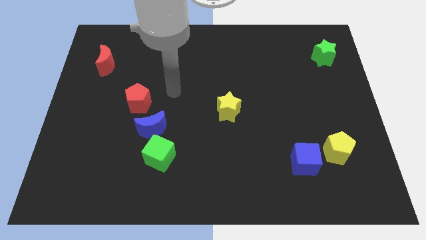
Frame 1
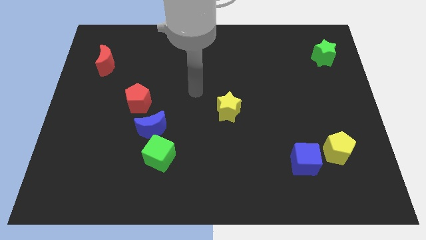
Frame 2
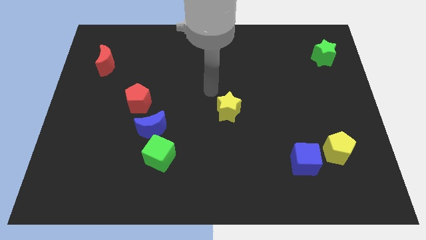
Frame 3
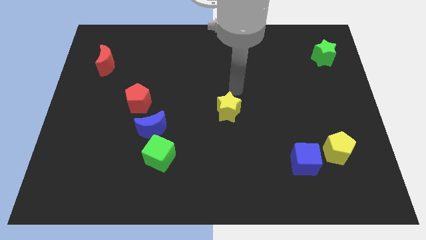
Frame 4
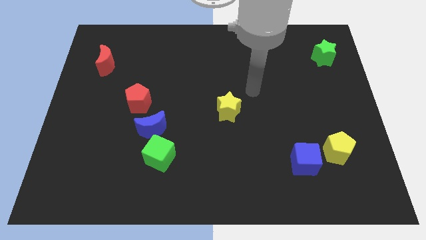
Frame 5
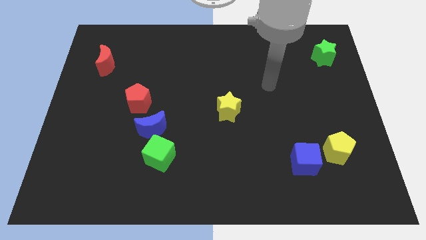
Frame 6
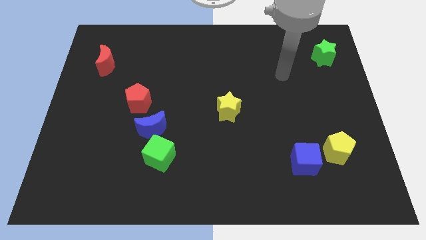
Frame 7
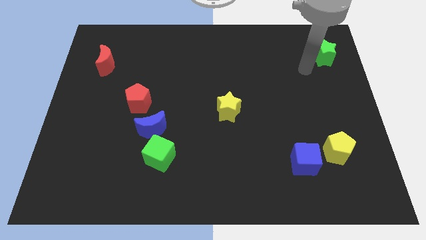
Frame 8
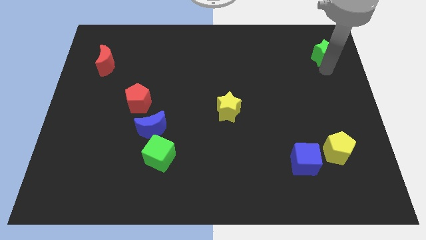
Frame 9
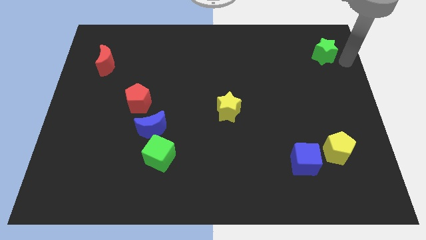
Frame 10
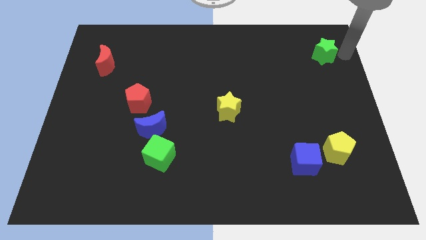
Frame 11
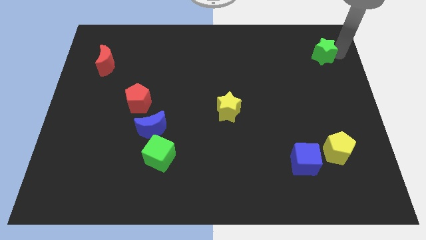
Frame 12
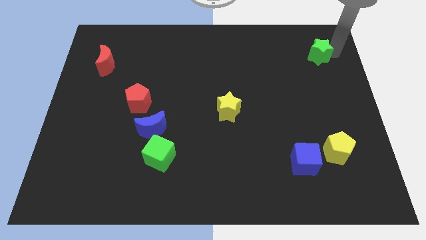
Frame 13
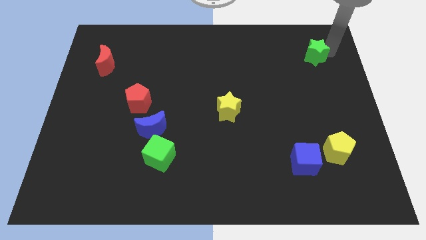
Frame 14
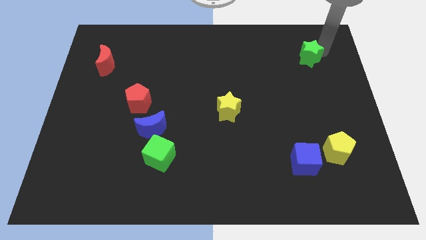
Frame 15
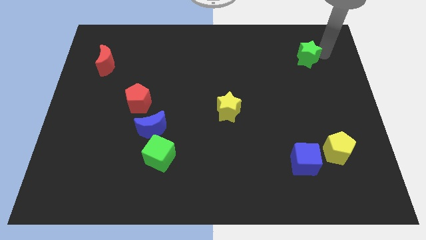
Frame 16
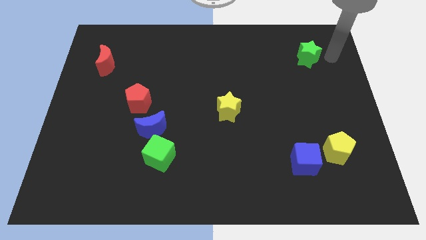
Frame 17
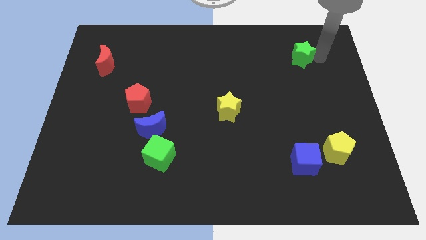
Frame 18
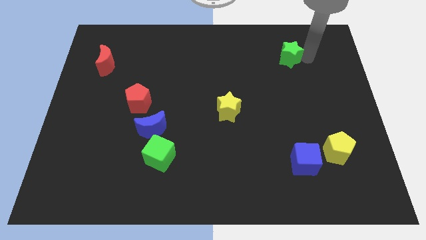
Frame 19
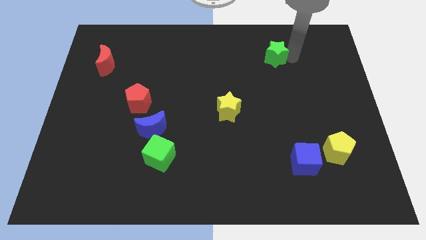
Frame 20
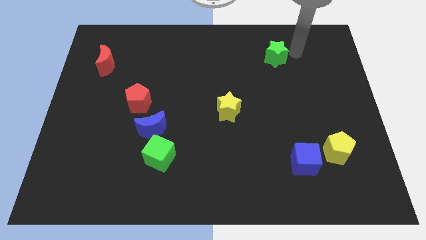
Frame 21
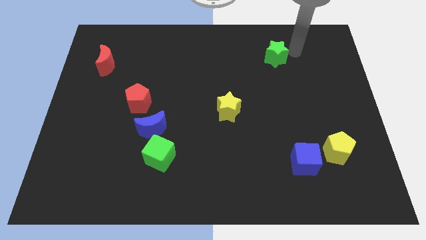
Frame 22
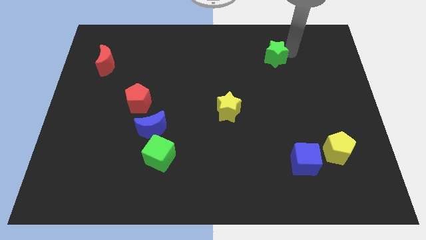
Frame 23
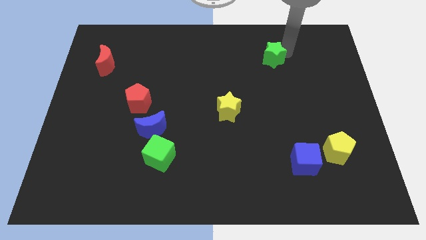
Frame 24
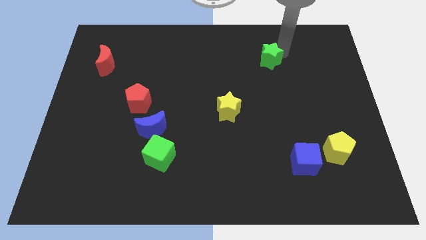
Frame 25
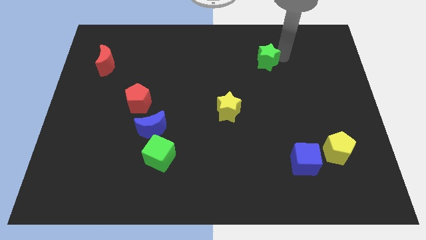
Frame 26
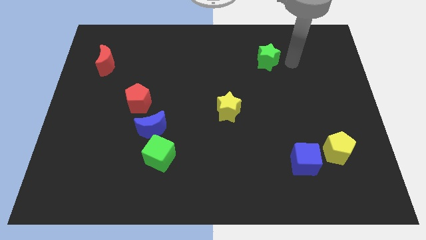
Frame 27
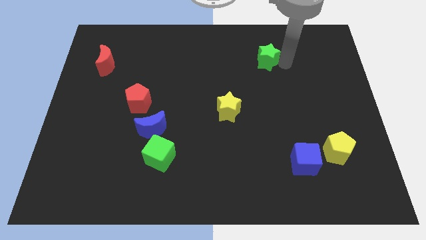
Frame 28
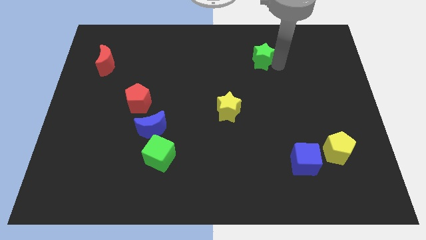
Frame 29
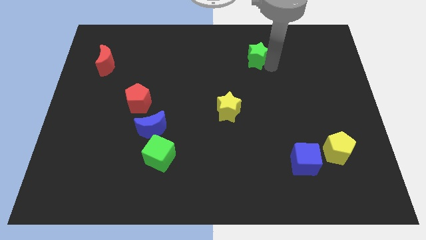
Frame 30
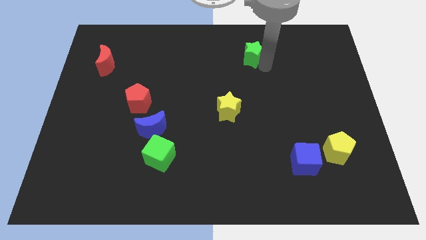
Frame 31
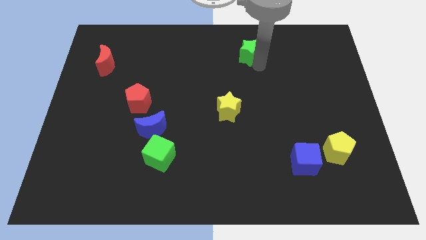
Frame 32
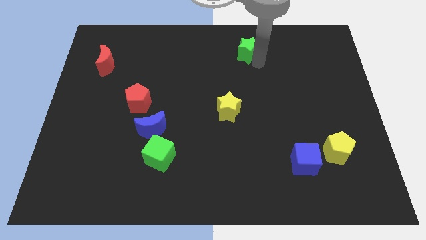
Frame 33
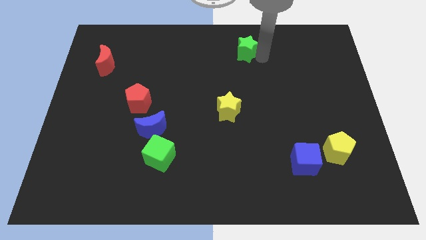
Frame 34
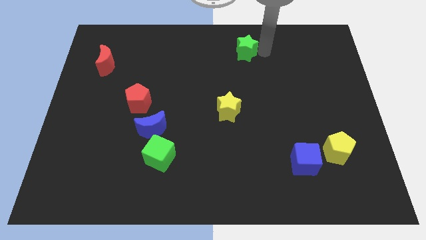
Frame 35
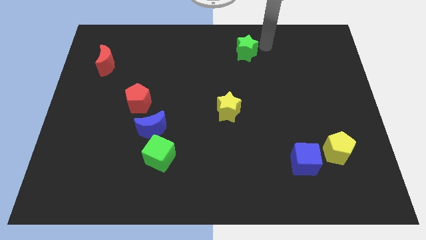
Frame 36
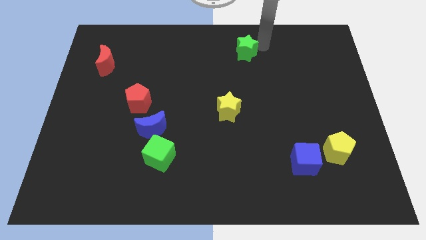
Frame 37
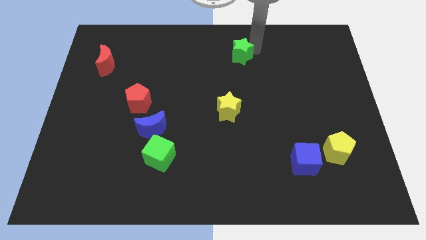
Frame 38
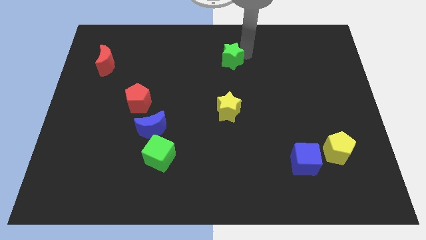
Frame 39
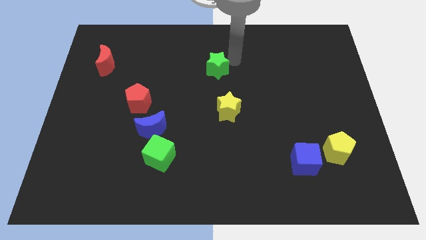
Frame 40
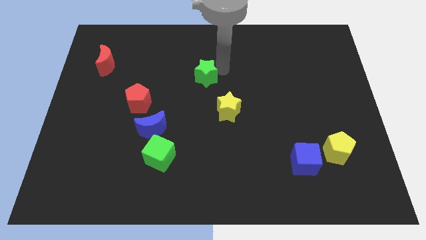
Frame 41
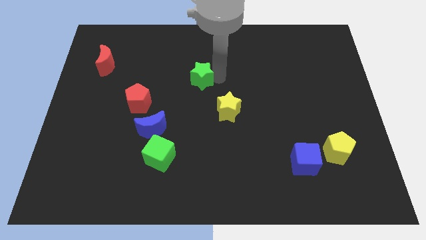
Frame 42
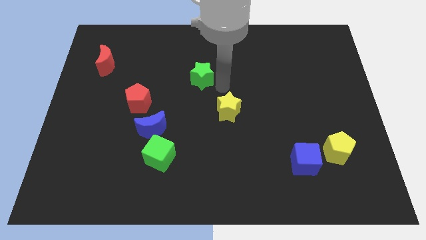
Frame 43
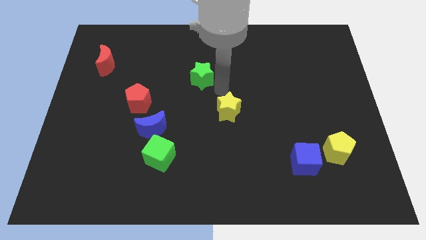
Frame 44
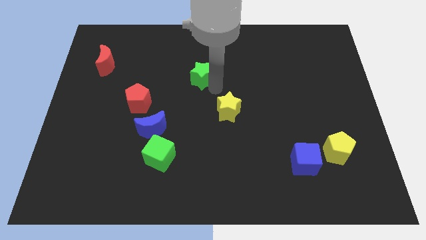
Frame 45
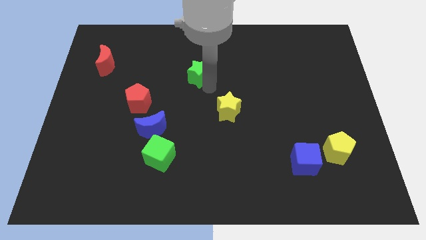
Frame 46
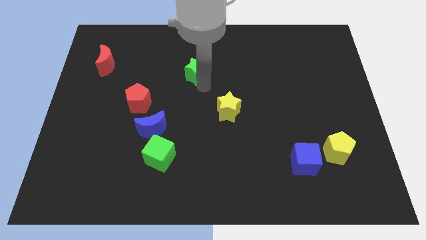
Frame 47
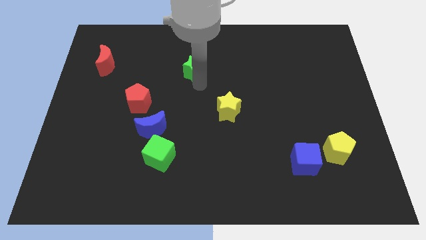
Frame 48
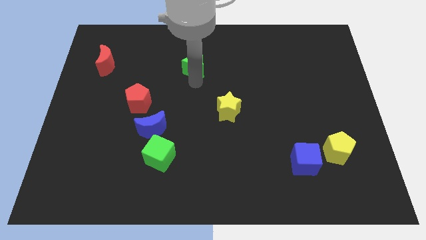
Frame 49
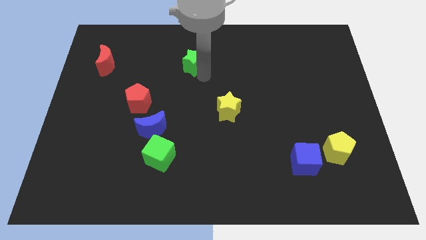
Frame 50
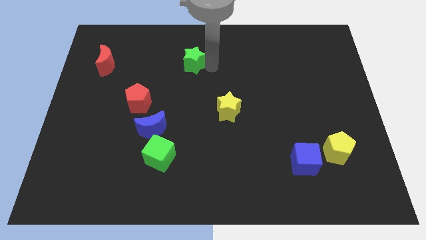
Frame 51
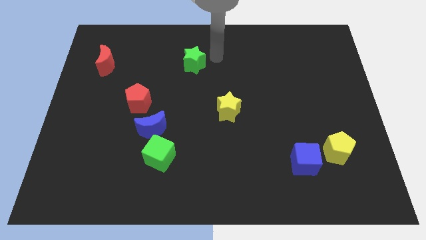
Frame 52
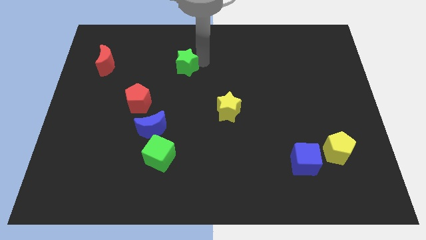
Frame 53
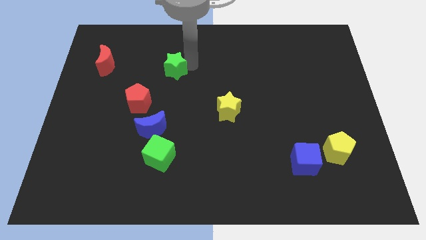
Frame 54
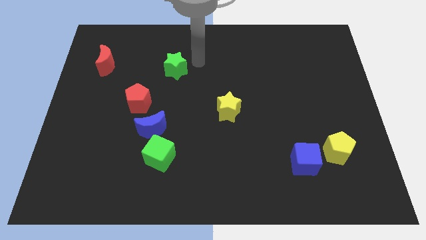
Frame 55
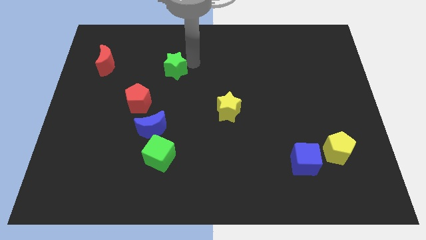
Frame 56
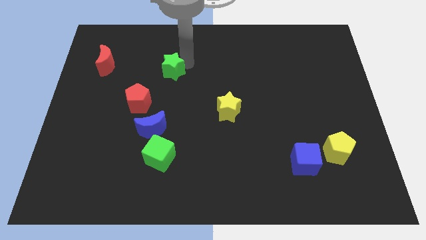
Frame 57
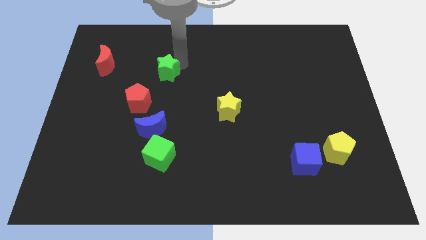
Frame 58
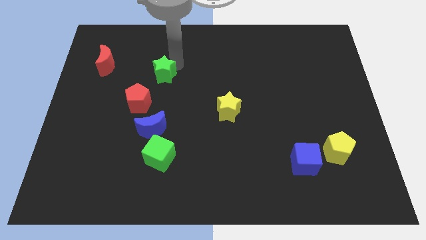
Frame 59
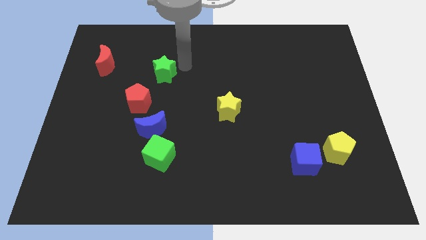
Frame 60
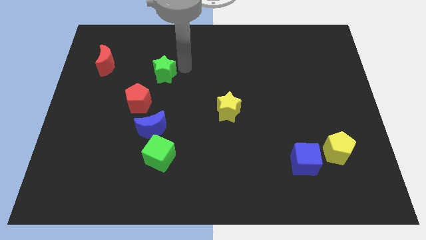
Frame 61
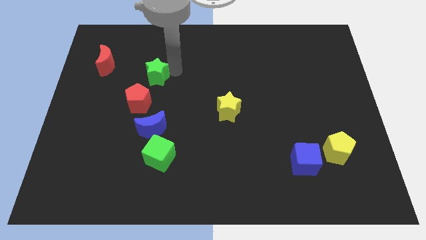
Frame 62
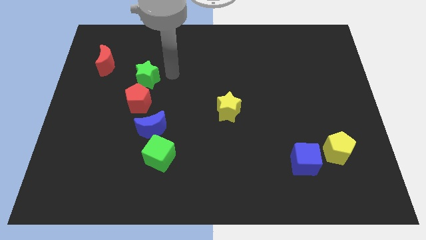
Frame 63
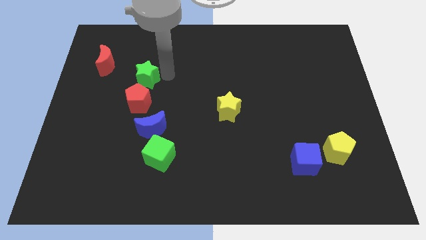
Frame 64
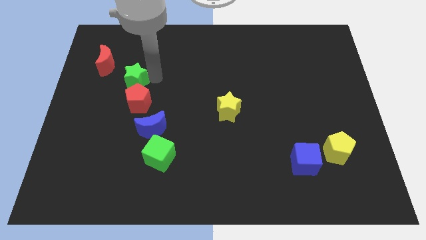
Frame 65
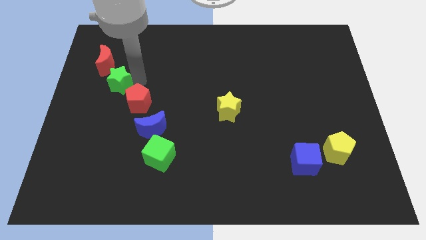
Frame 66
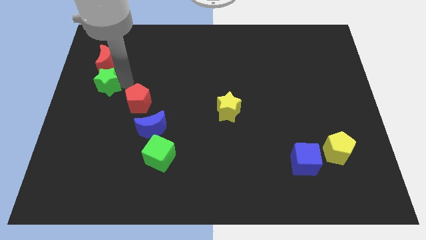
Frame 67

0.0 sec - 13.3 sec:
slide the green star to the center left
